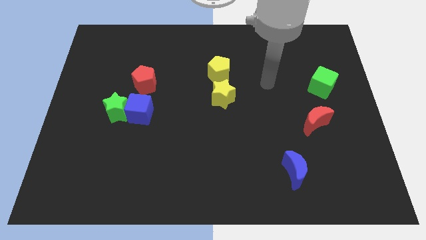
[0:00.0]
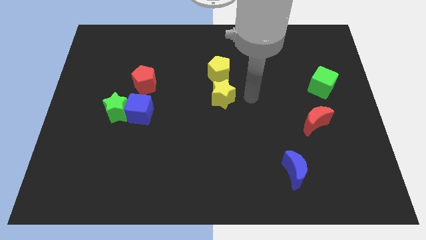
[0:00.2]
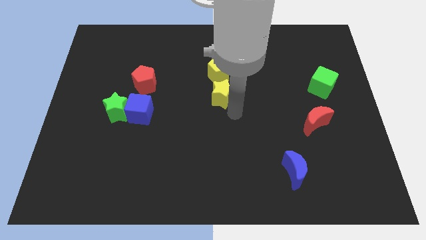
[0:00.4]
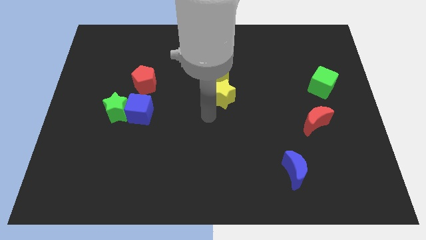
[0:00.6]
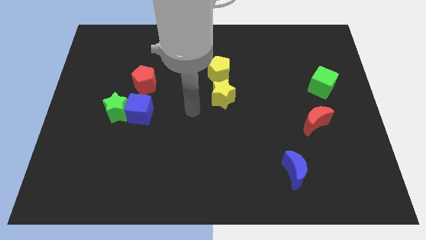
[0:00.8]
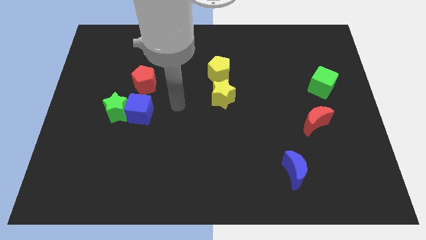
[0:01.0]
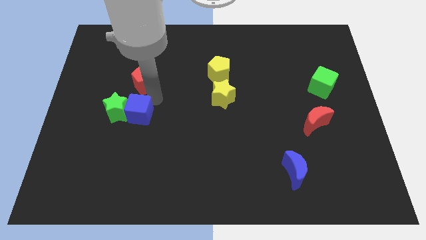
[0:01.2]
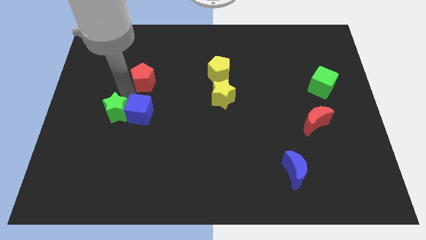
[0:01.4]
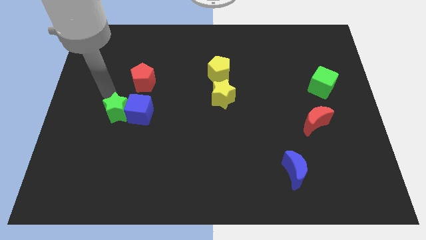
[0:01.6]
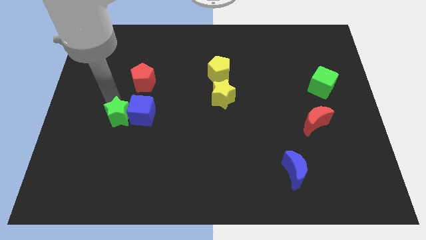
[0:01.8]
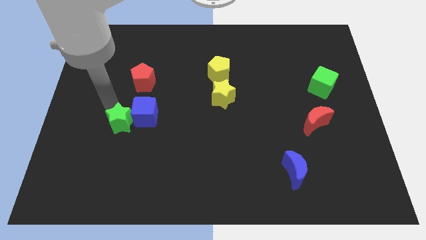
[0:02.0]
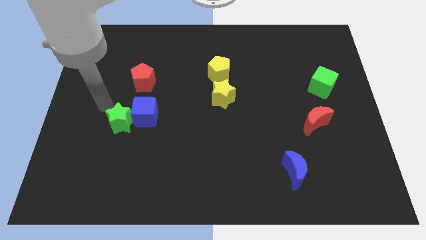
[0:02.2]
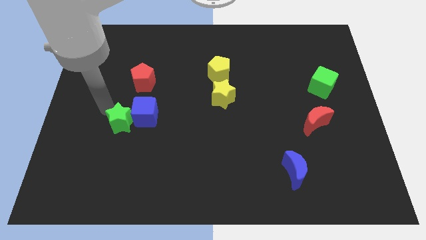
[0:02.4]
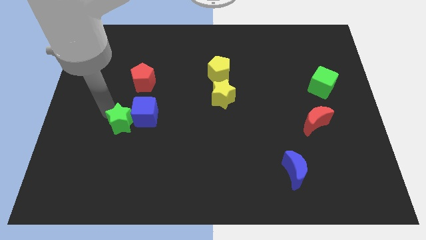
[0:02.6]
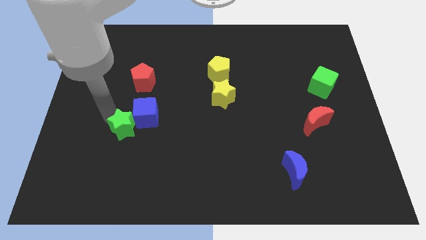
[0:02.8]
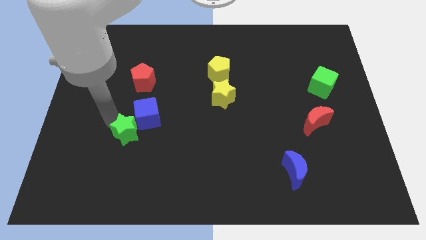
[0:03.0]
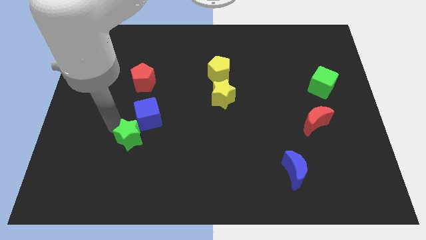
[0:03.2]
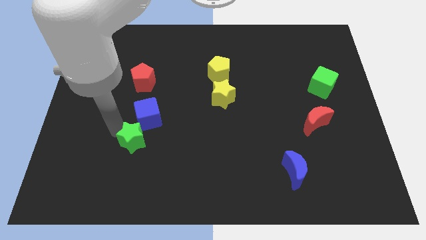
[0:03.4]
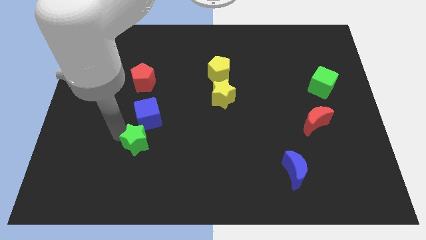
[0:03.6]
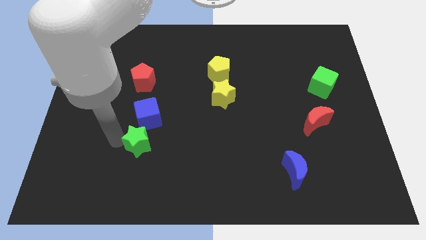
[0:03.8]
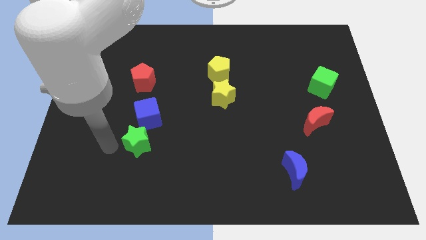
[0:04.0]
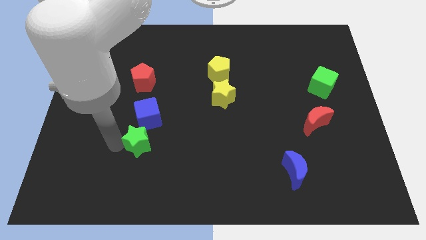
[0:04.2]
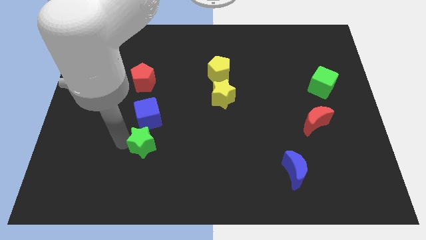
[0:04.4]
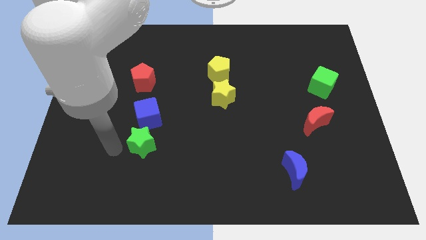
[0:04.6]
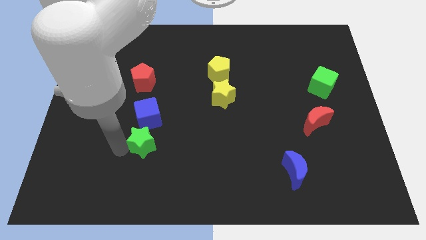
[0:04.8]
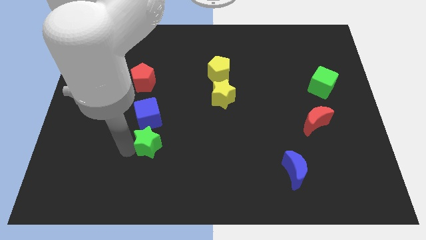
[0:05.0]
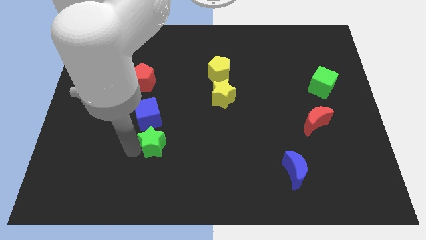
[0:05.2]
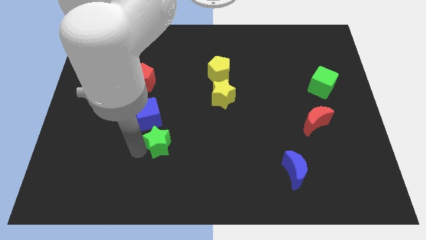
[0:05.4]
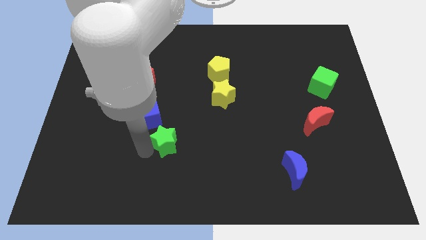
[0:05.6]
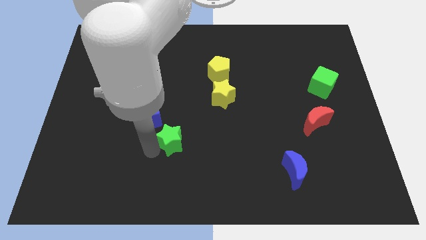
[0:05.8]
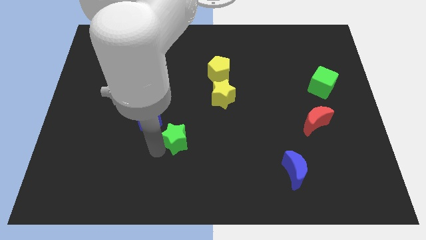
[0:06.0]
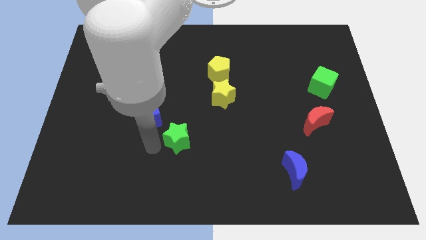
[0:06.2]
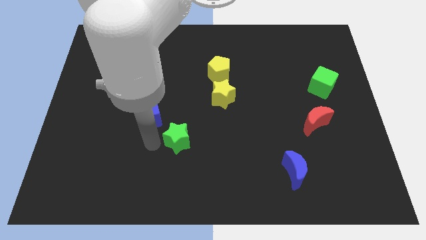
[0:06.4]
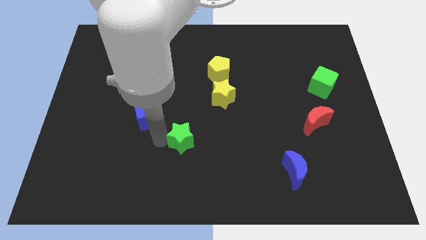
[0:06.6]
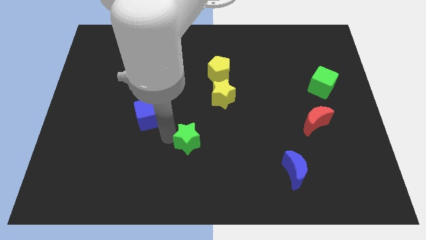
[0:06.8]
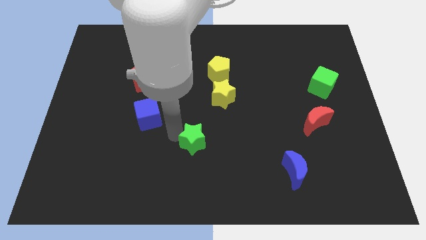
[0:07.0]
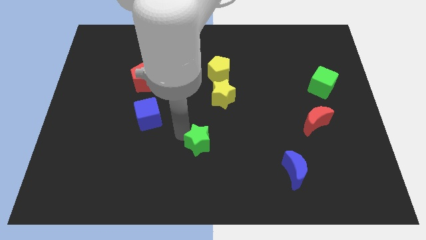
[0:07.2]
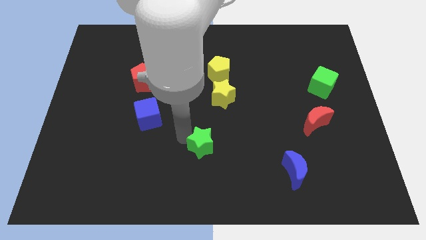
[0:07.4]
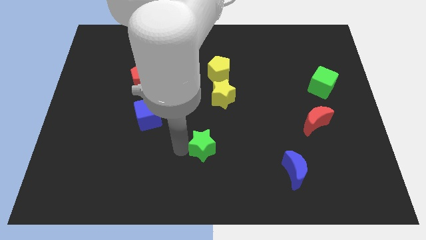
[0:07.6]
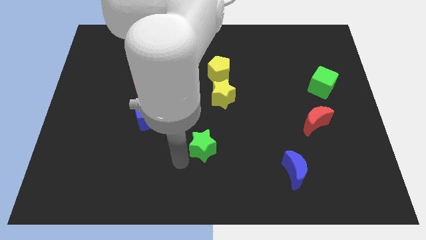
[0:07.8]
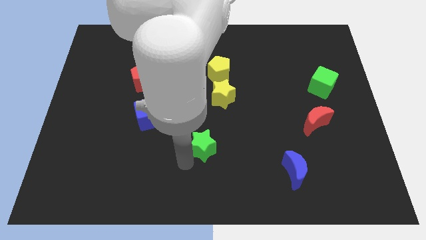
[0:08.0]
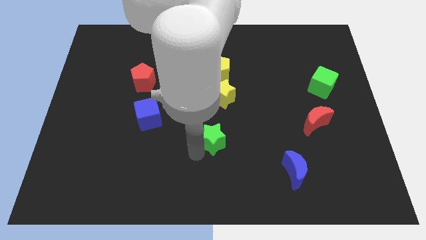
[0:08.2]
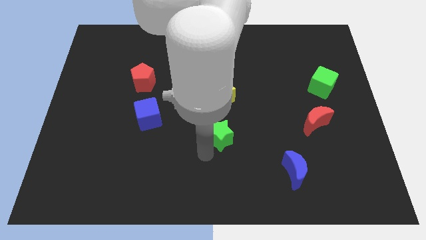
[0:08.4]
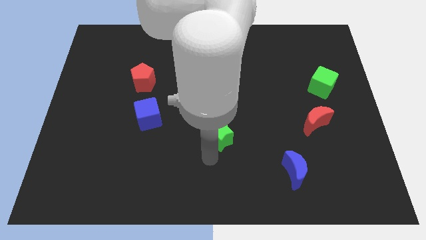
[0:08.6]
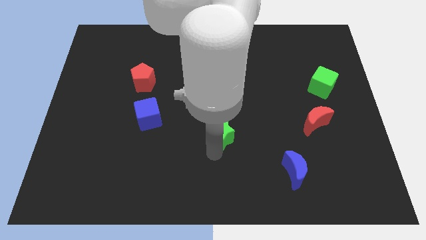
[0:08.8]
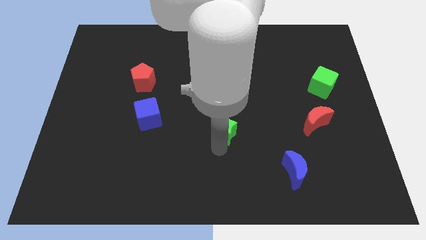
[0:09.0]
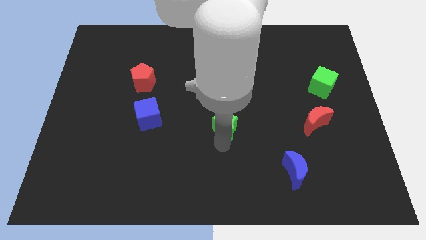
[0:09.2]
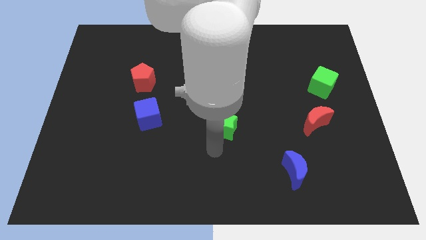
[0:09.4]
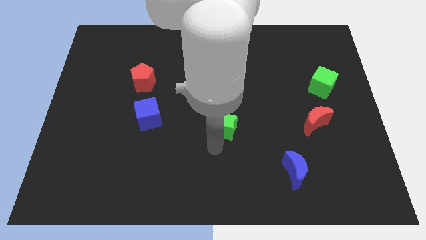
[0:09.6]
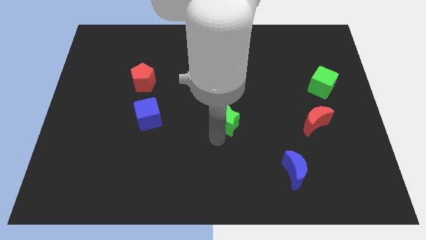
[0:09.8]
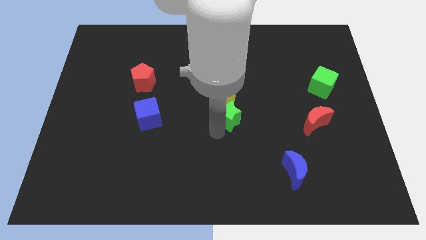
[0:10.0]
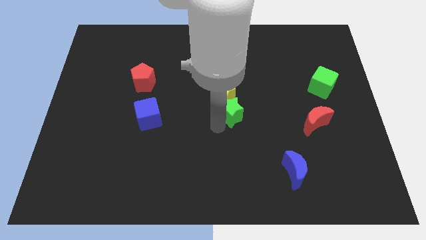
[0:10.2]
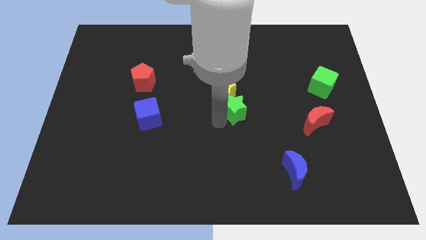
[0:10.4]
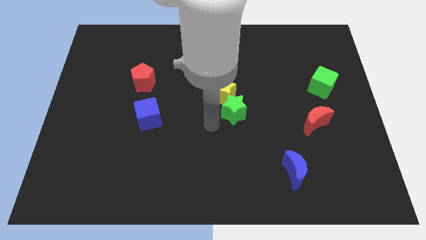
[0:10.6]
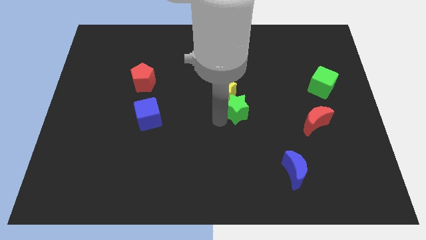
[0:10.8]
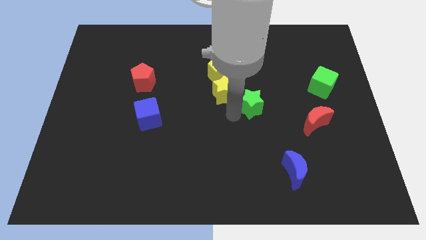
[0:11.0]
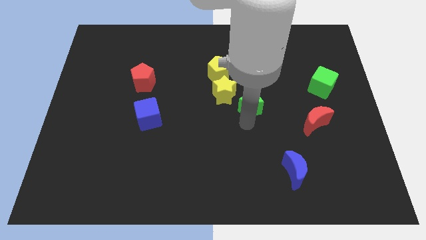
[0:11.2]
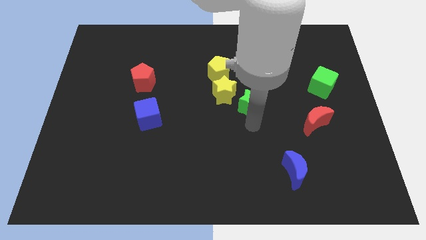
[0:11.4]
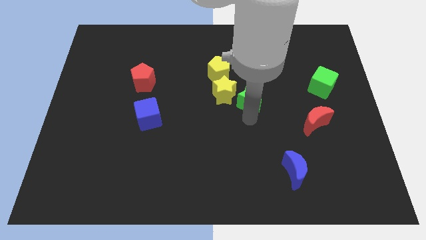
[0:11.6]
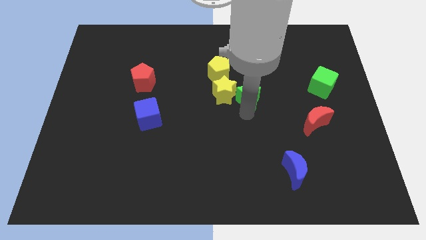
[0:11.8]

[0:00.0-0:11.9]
move the green star diagonally up and to the right of the yellow star

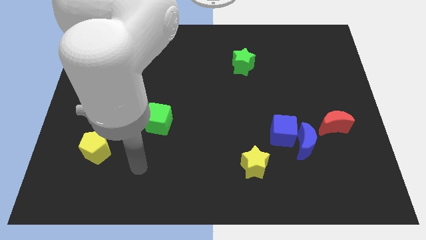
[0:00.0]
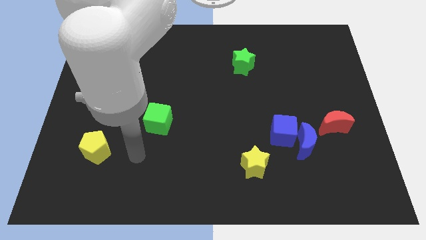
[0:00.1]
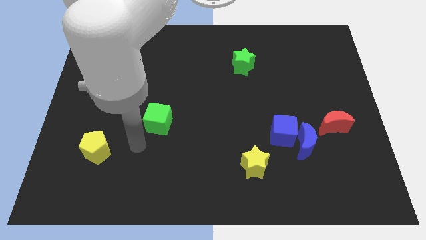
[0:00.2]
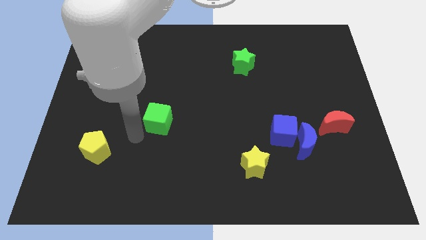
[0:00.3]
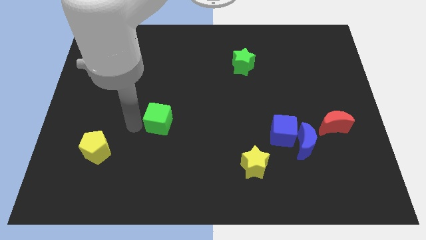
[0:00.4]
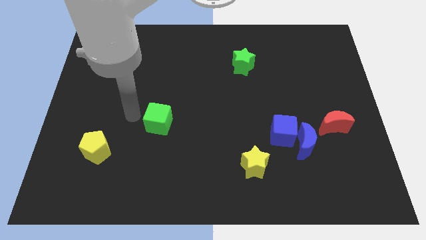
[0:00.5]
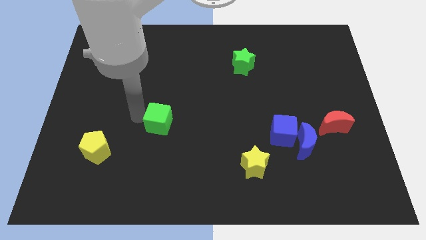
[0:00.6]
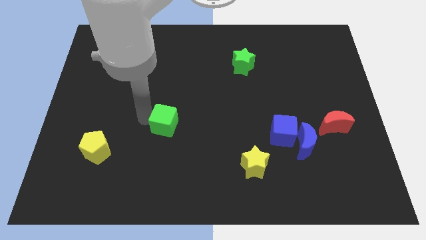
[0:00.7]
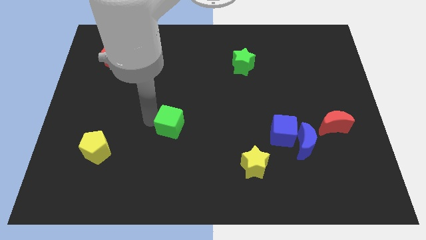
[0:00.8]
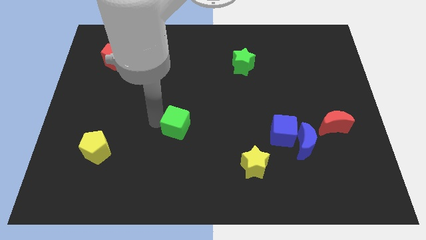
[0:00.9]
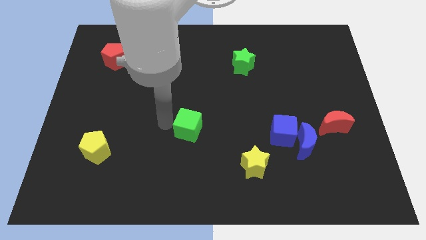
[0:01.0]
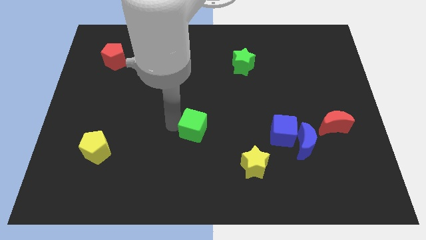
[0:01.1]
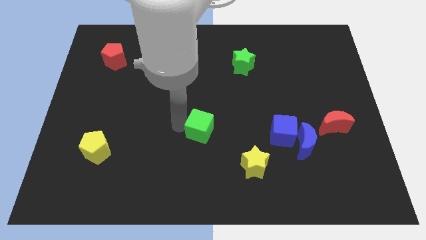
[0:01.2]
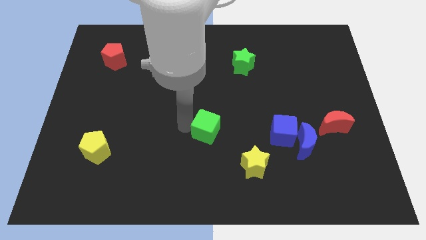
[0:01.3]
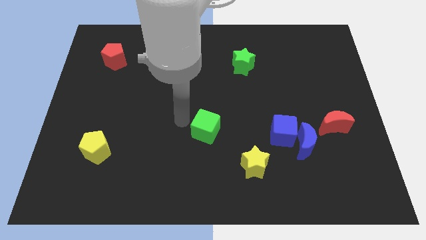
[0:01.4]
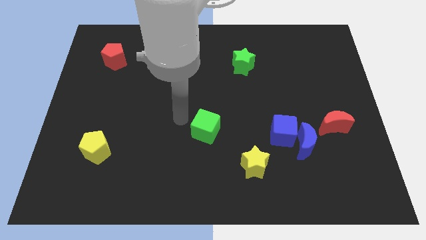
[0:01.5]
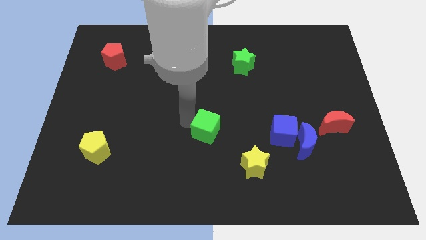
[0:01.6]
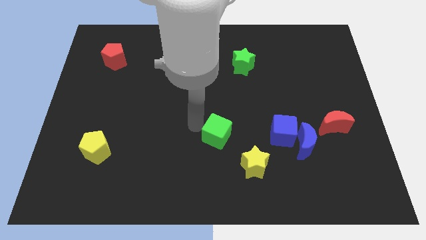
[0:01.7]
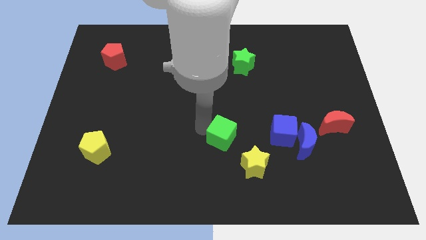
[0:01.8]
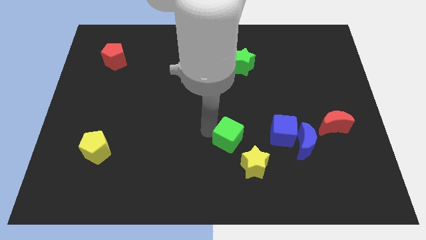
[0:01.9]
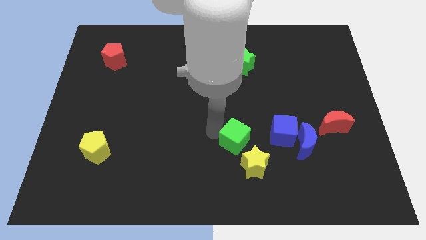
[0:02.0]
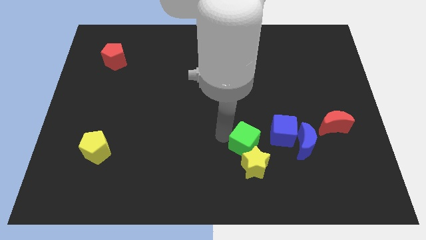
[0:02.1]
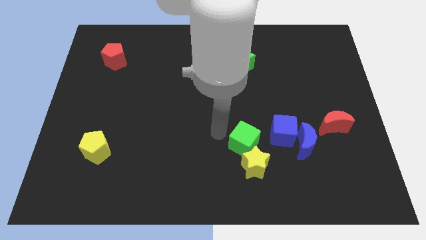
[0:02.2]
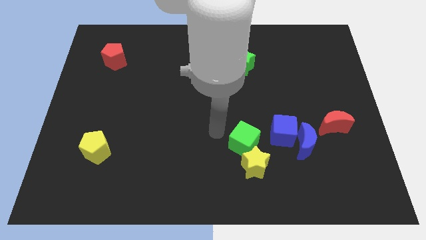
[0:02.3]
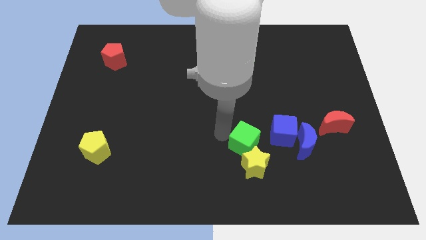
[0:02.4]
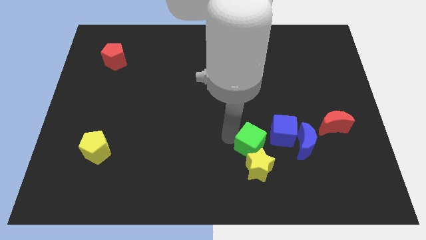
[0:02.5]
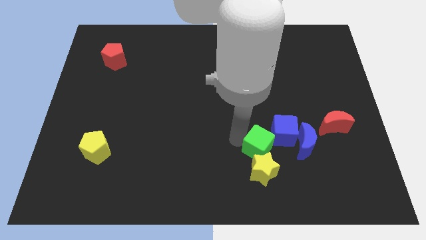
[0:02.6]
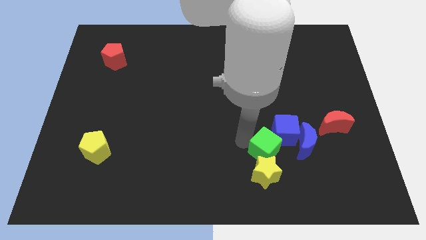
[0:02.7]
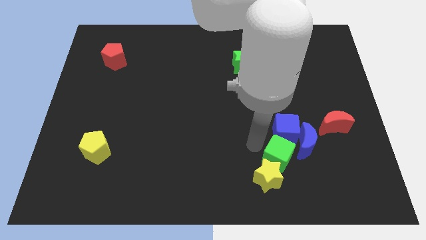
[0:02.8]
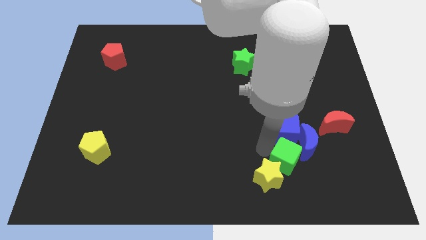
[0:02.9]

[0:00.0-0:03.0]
put the green cube just right of the yellow star
